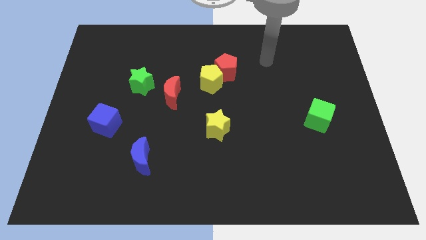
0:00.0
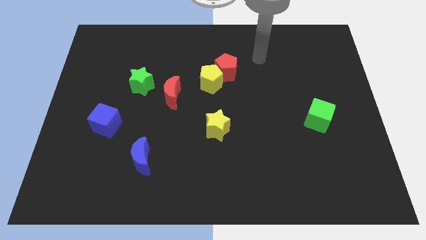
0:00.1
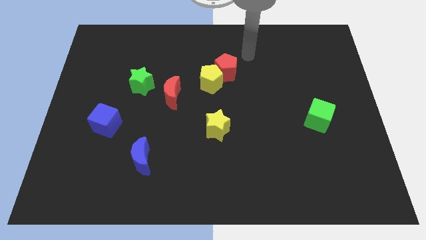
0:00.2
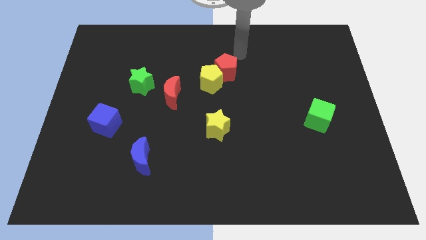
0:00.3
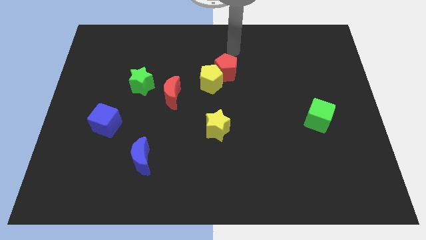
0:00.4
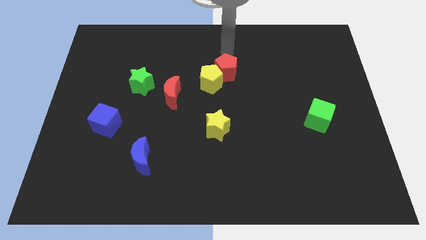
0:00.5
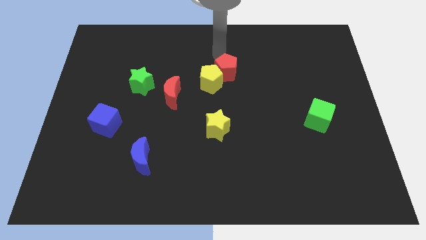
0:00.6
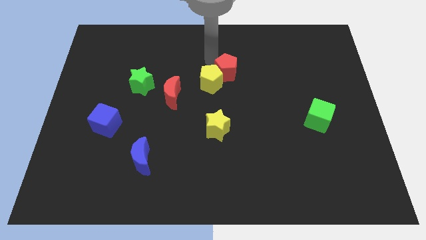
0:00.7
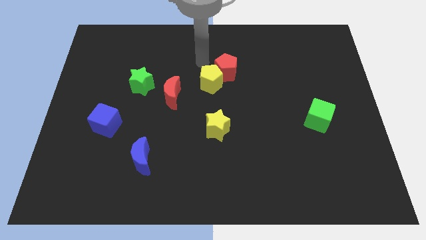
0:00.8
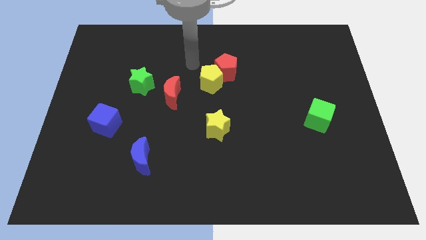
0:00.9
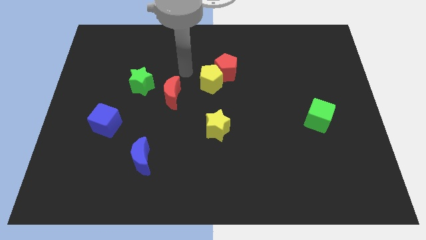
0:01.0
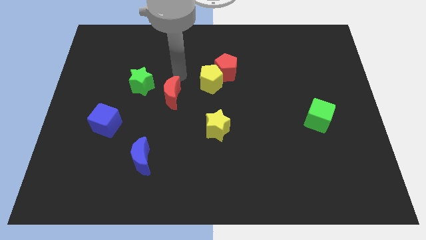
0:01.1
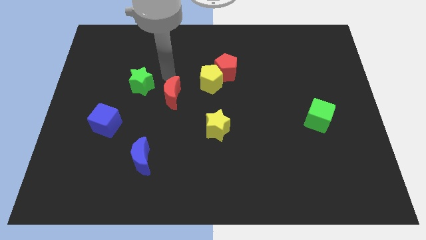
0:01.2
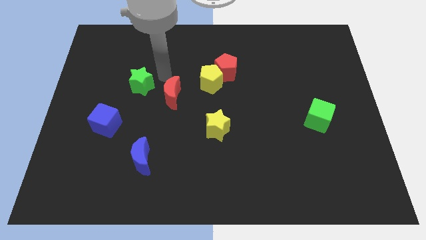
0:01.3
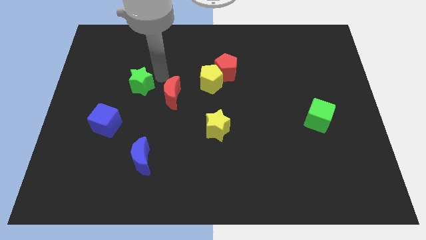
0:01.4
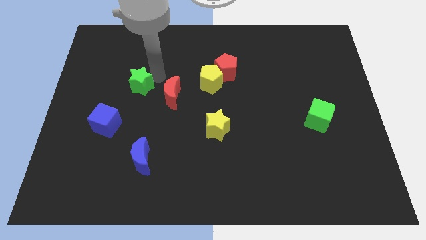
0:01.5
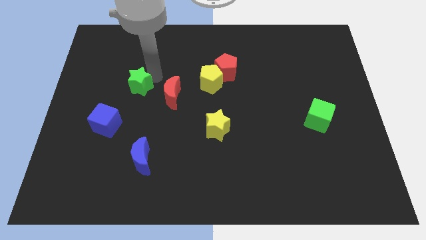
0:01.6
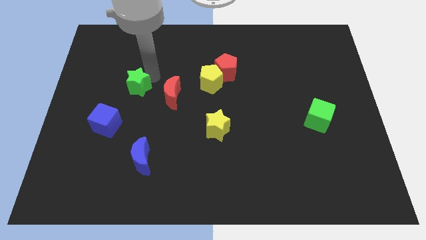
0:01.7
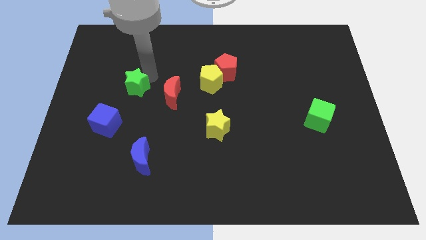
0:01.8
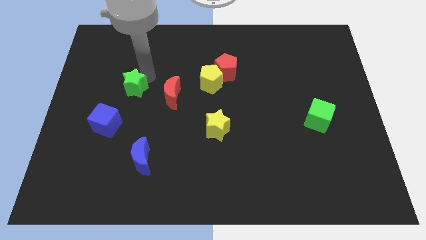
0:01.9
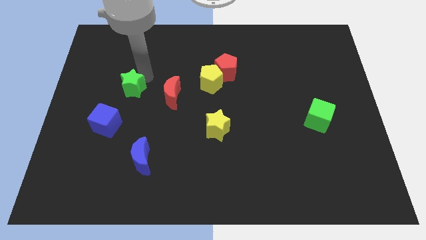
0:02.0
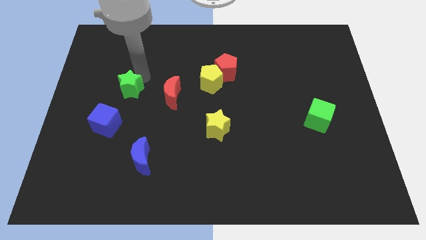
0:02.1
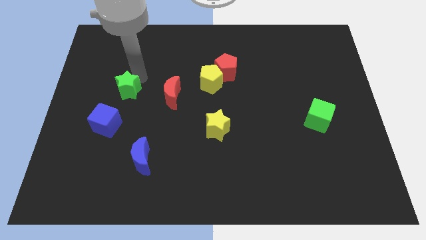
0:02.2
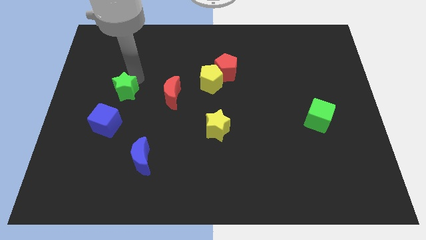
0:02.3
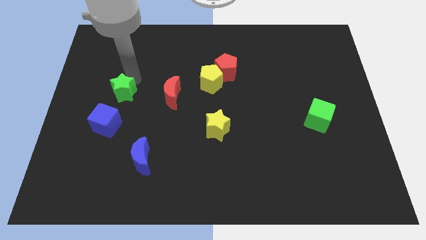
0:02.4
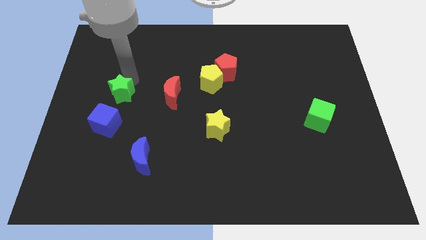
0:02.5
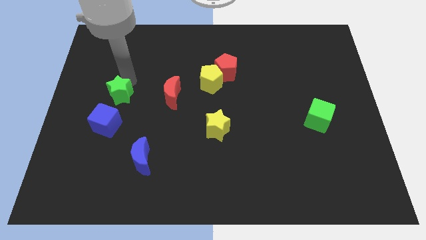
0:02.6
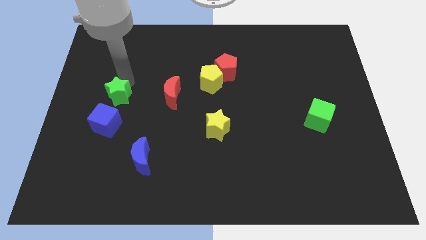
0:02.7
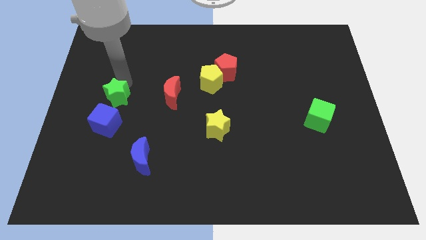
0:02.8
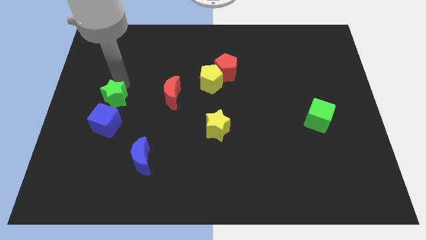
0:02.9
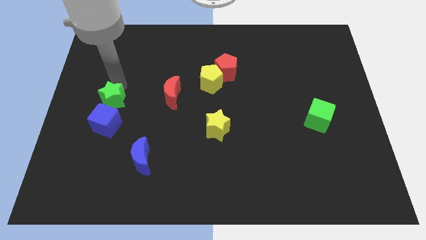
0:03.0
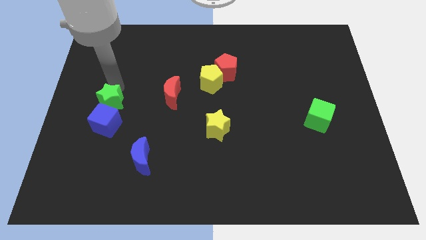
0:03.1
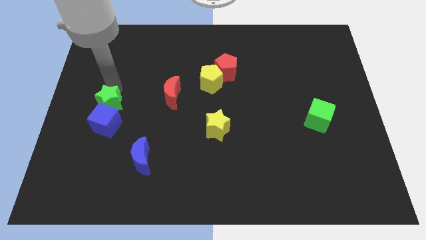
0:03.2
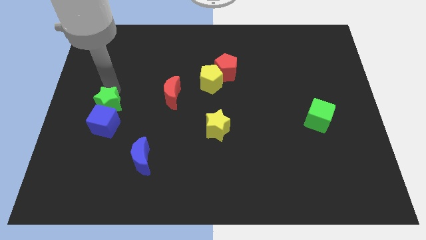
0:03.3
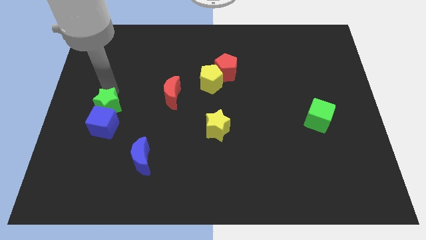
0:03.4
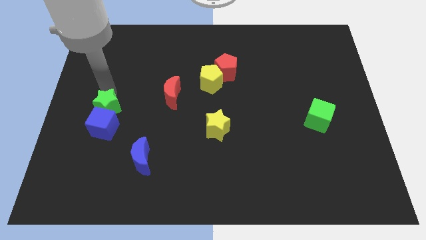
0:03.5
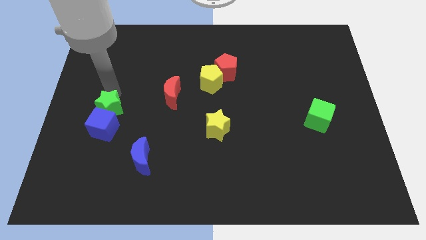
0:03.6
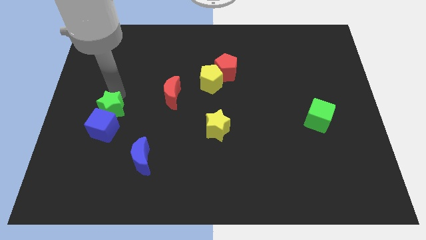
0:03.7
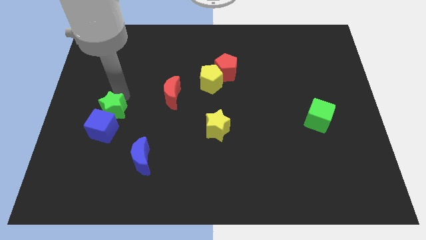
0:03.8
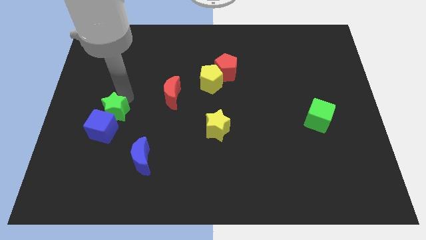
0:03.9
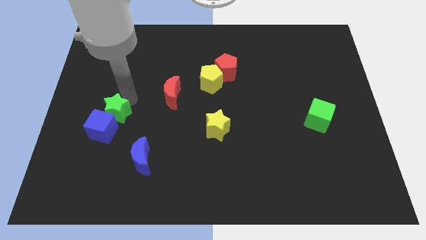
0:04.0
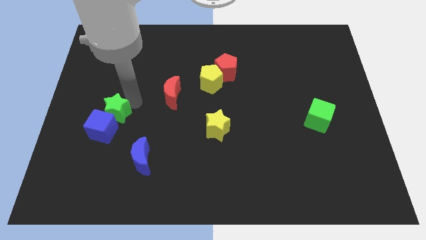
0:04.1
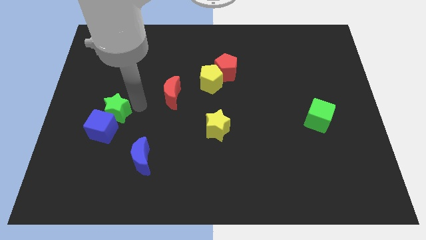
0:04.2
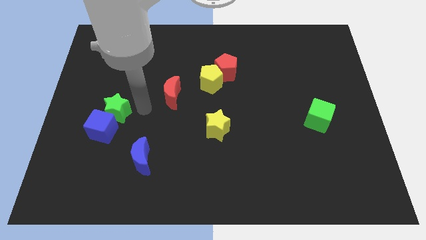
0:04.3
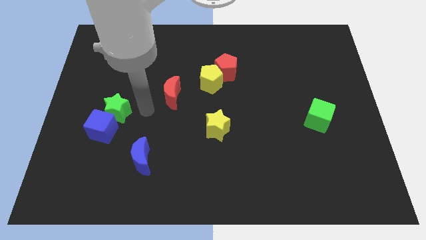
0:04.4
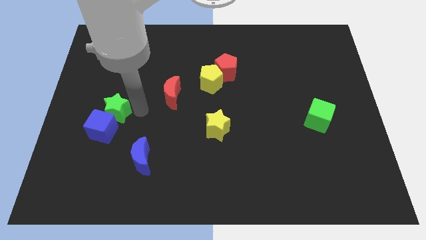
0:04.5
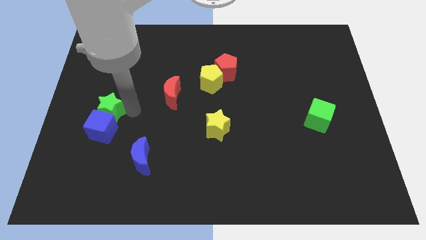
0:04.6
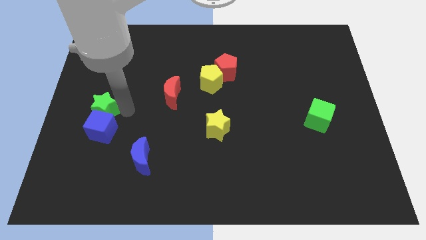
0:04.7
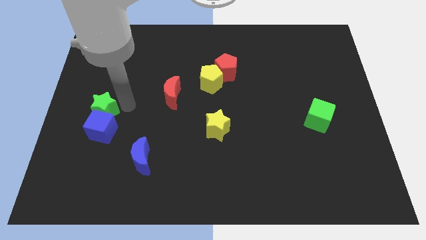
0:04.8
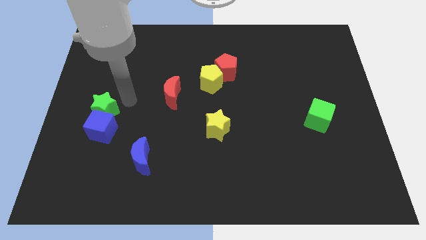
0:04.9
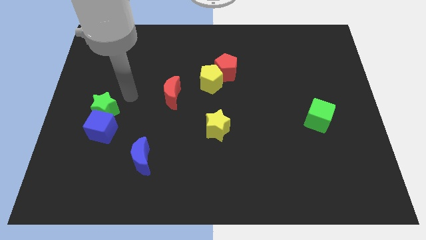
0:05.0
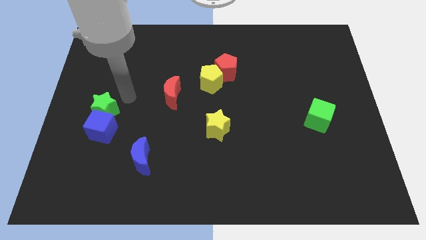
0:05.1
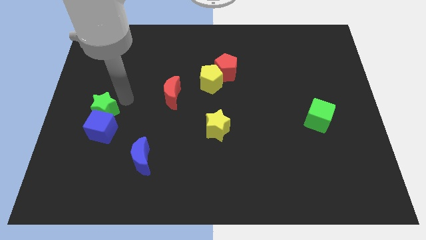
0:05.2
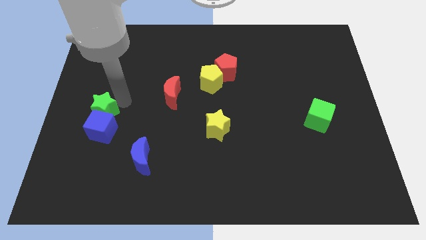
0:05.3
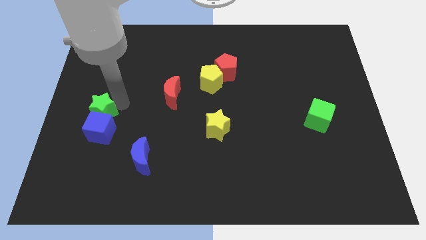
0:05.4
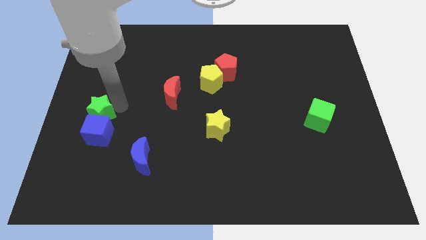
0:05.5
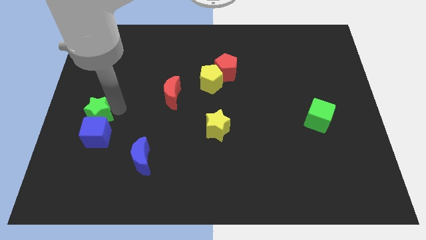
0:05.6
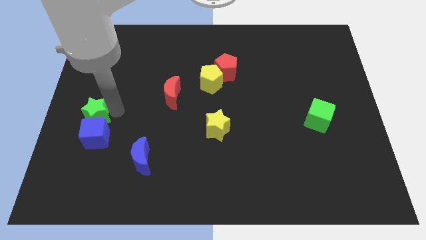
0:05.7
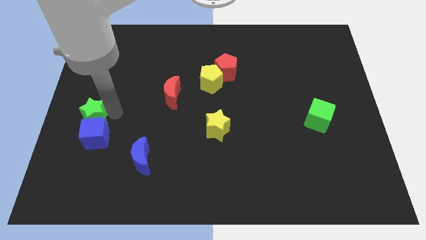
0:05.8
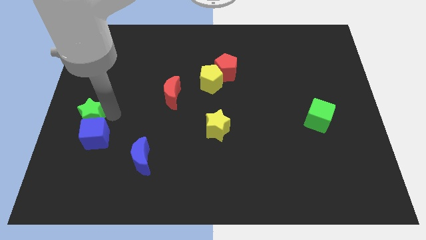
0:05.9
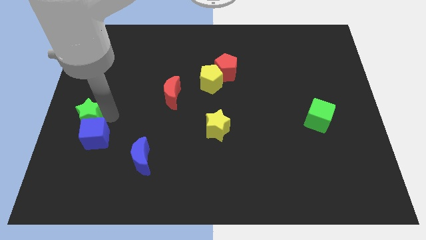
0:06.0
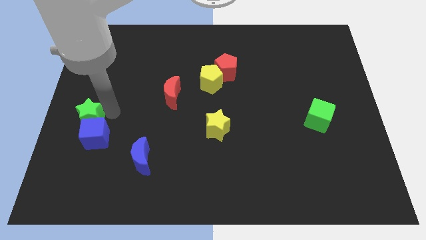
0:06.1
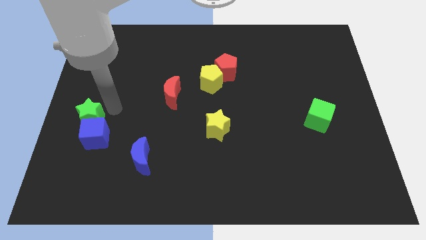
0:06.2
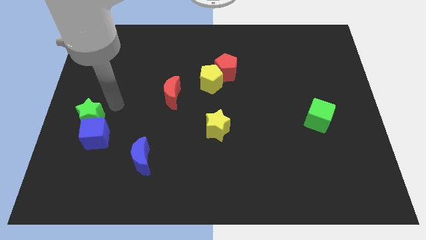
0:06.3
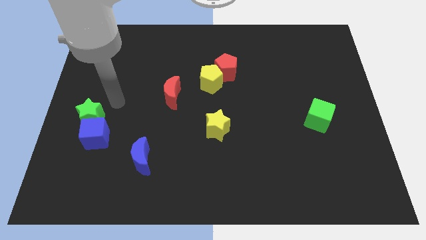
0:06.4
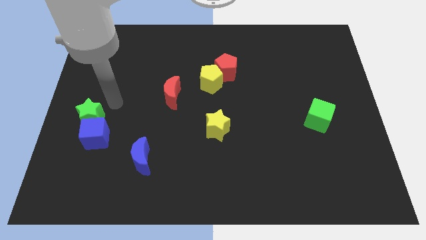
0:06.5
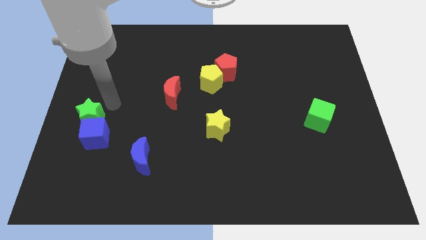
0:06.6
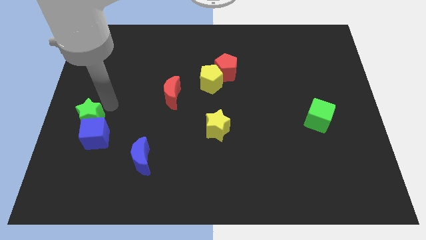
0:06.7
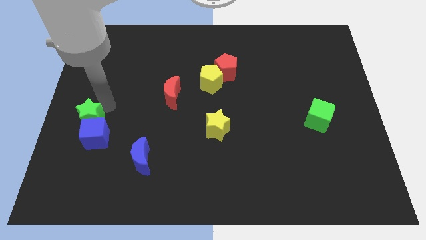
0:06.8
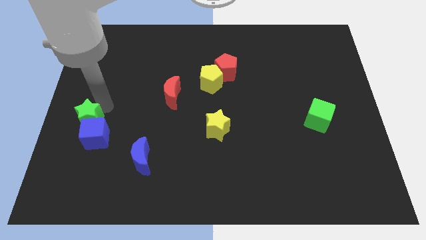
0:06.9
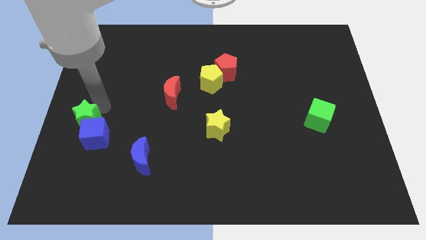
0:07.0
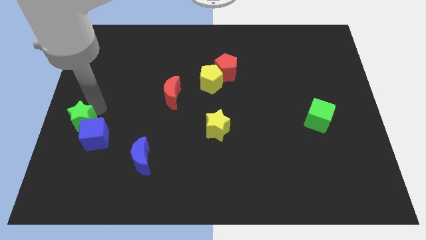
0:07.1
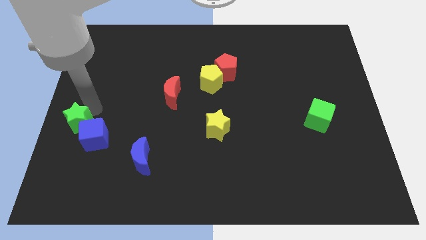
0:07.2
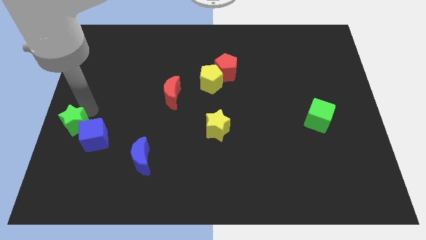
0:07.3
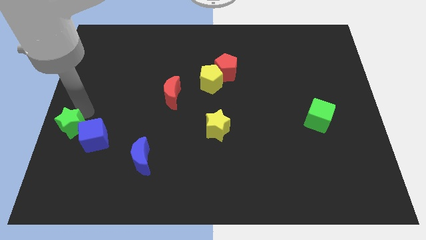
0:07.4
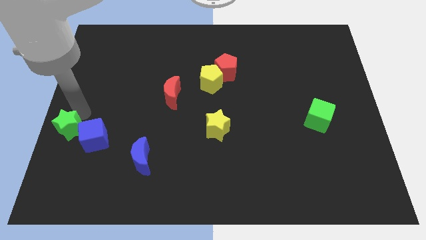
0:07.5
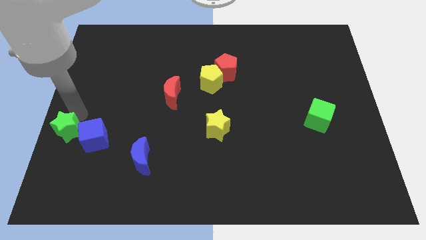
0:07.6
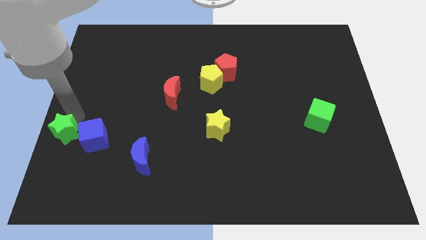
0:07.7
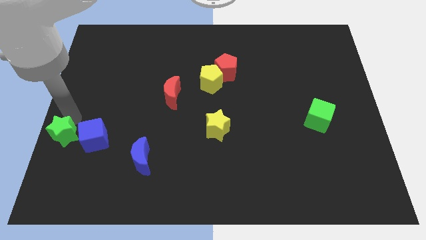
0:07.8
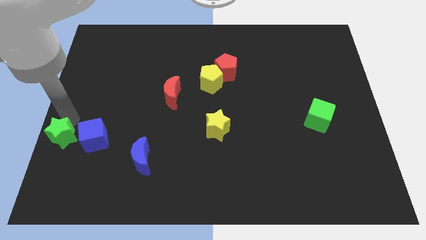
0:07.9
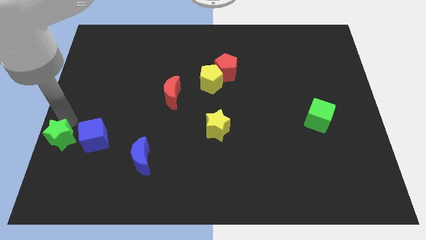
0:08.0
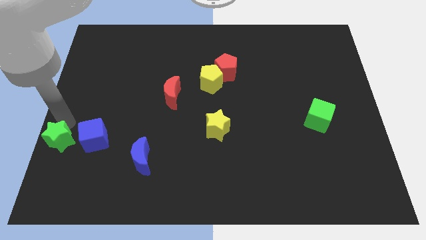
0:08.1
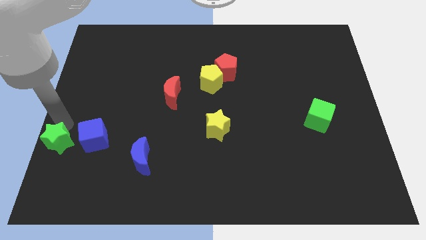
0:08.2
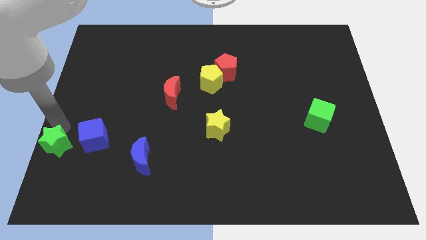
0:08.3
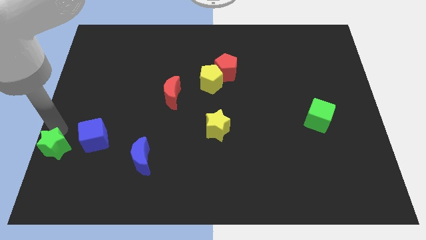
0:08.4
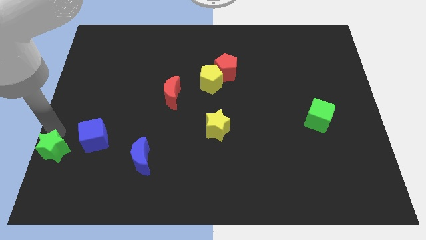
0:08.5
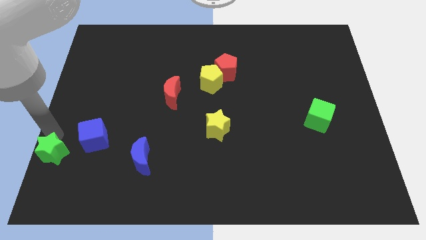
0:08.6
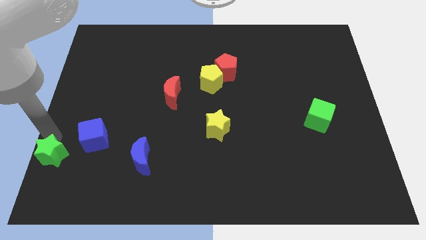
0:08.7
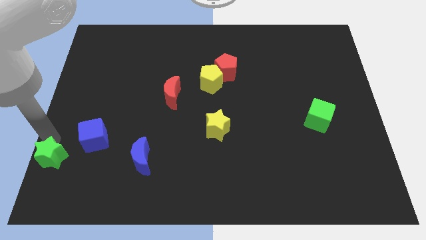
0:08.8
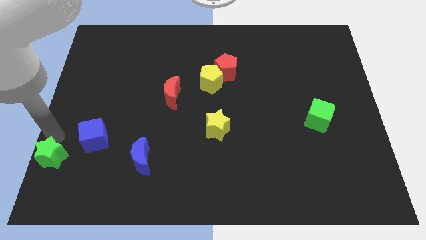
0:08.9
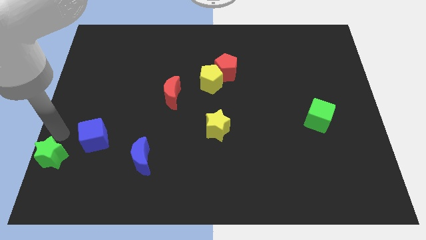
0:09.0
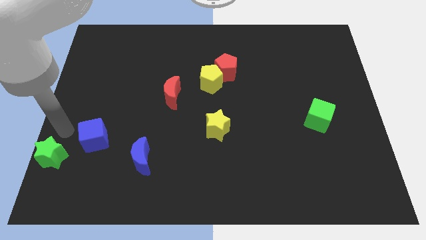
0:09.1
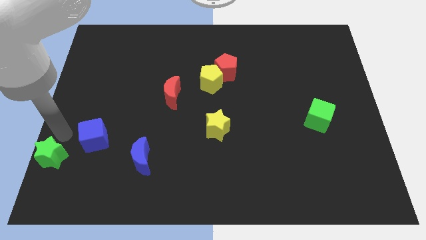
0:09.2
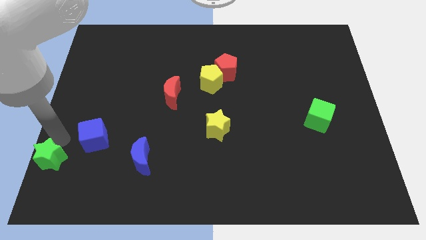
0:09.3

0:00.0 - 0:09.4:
move the green star to the bottom left corner
